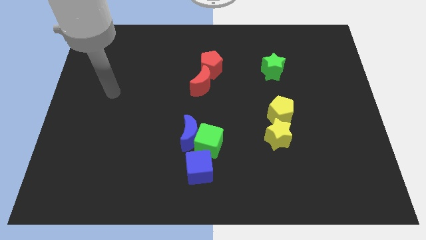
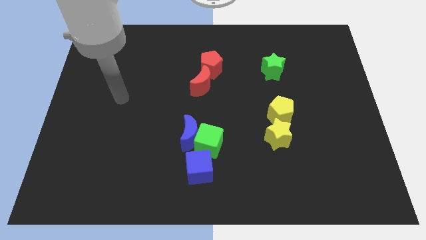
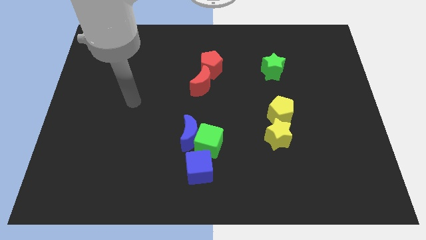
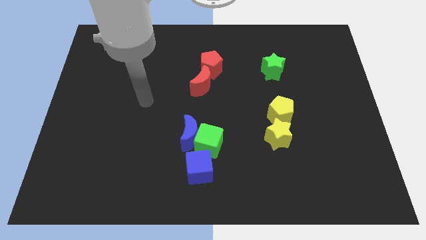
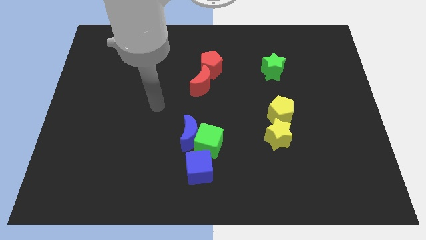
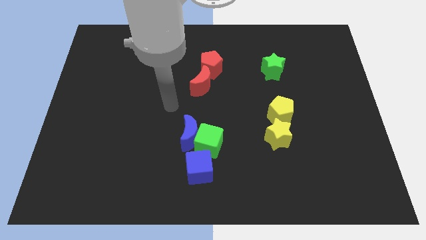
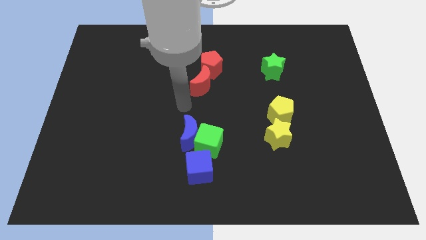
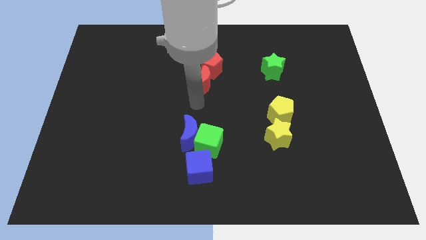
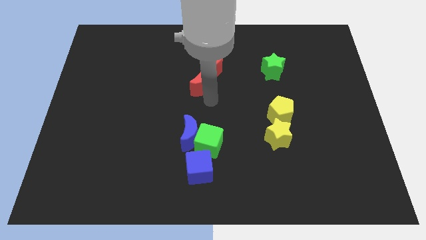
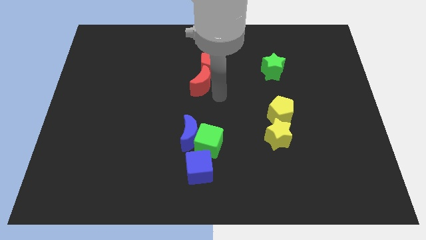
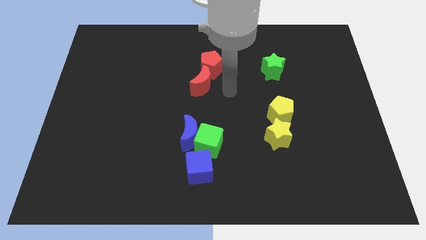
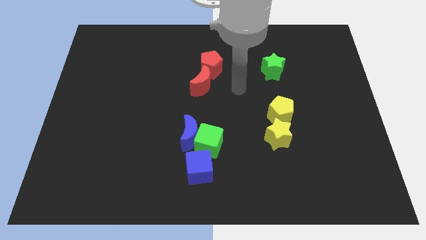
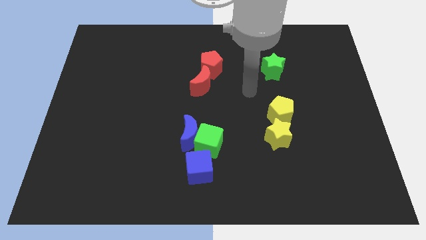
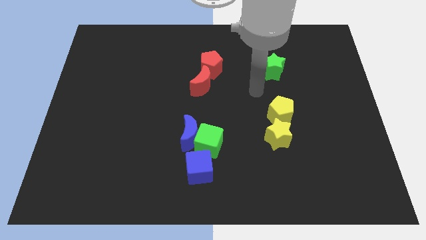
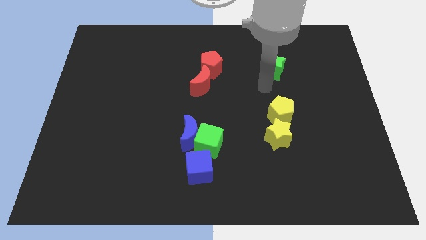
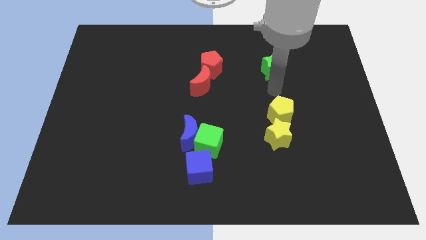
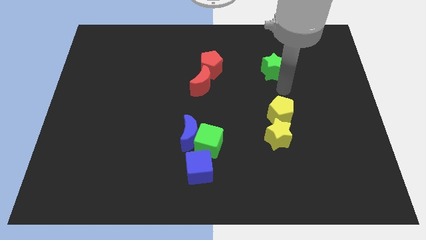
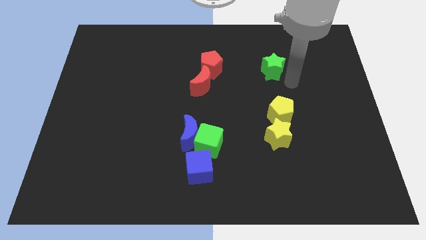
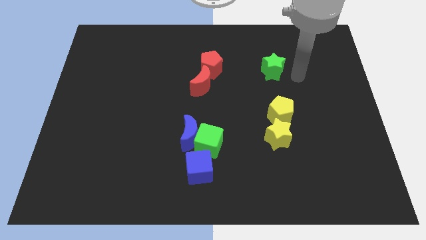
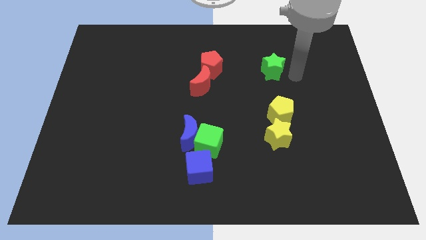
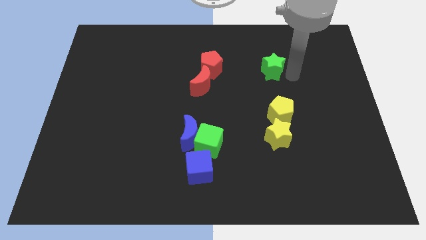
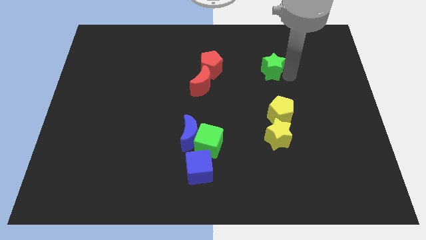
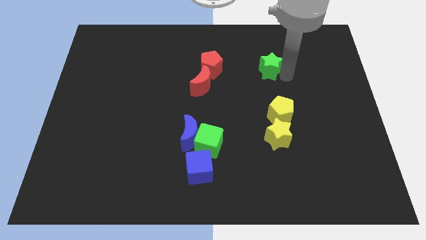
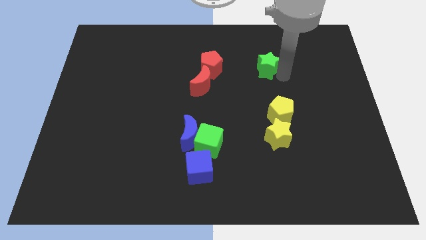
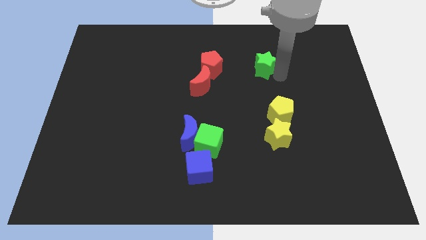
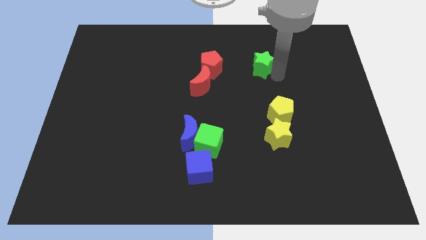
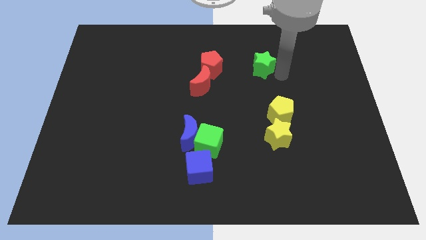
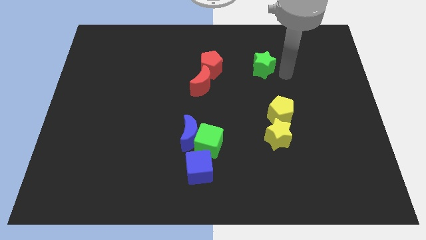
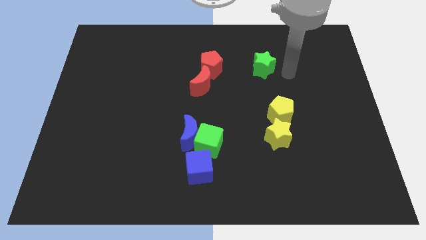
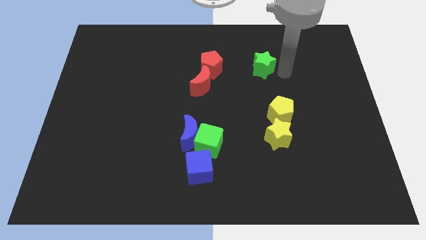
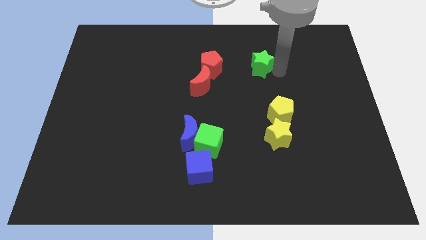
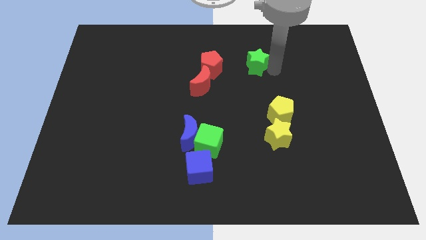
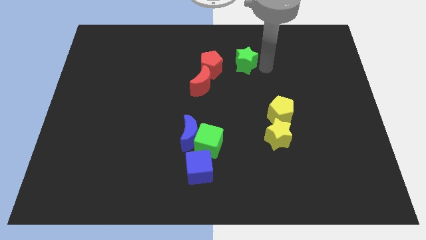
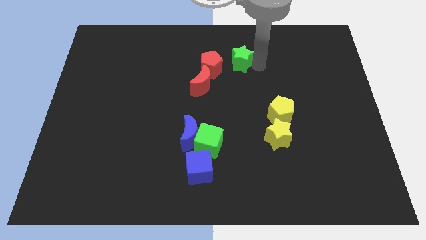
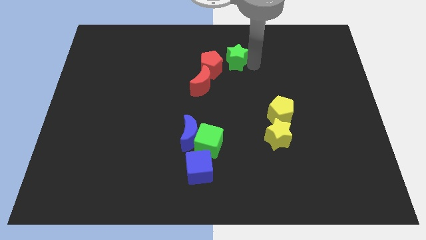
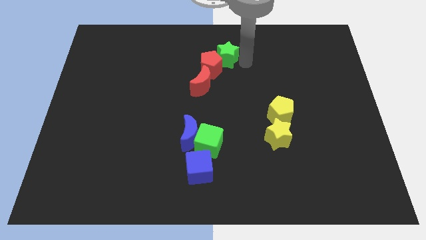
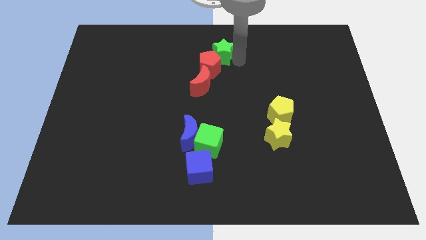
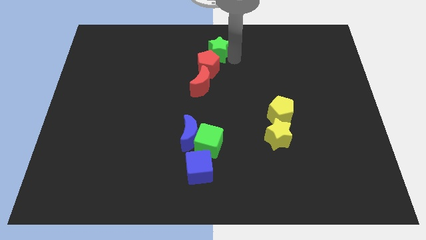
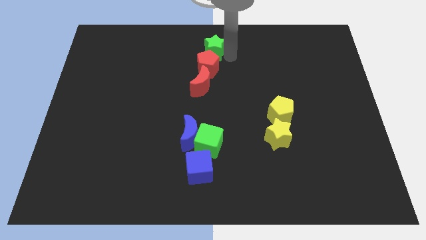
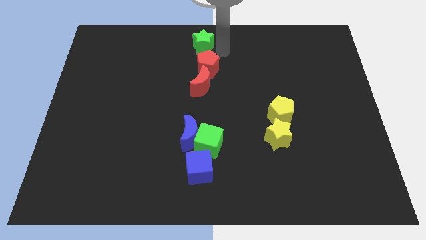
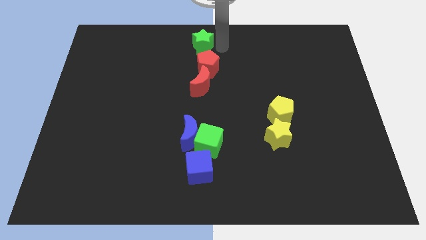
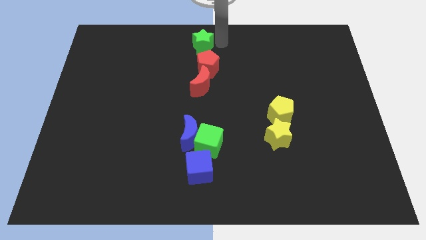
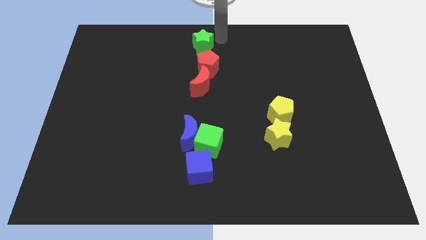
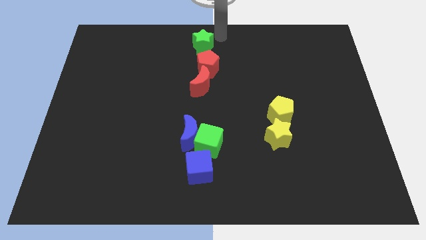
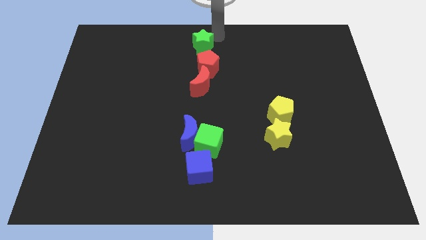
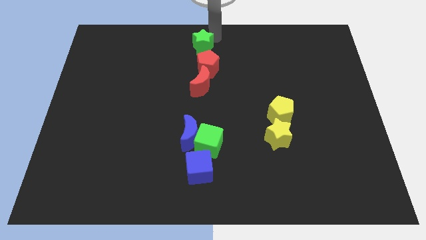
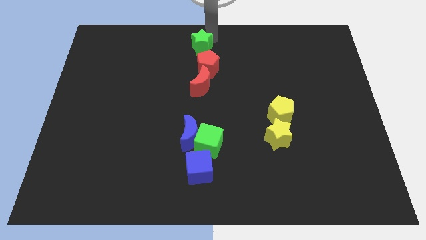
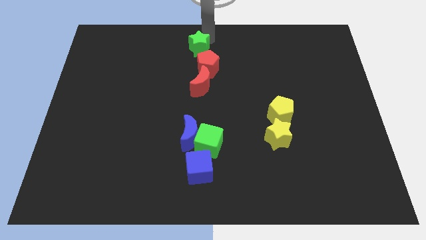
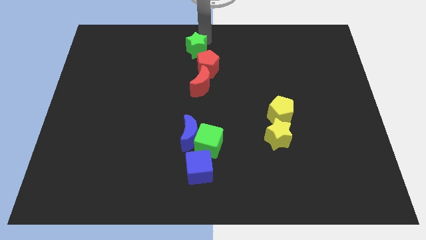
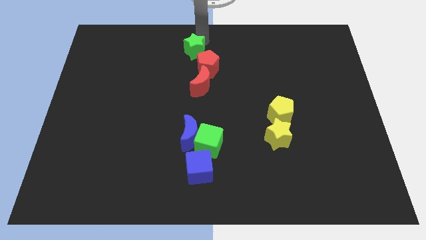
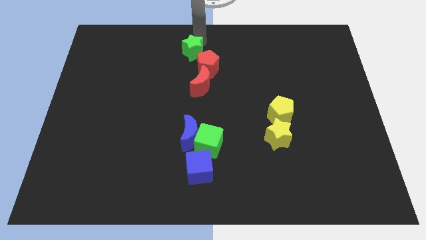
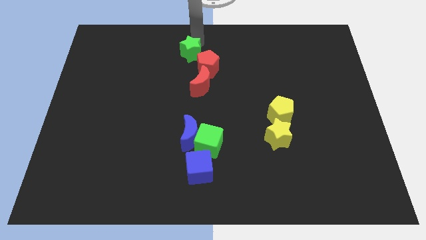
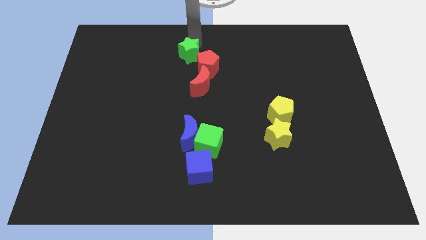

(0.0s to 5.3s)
move the green star to the left

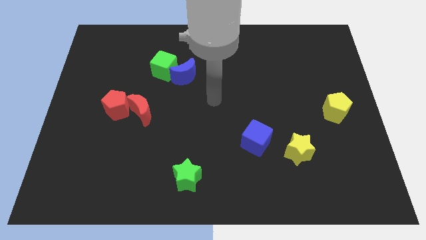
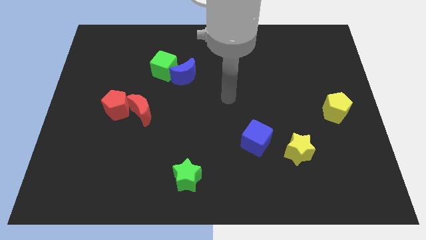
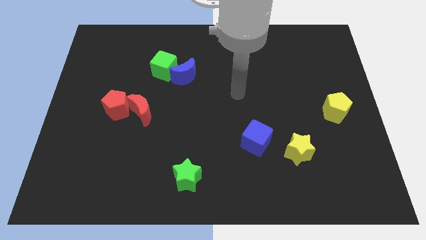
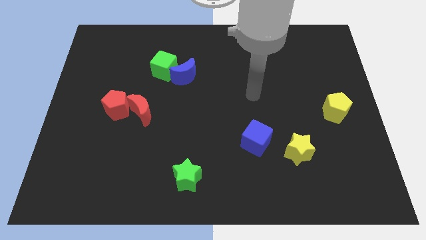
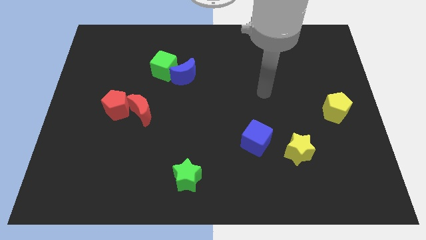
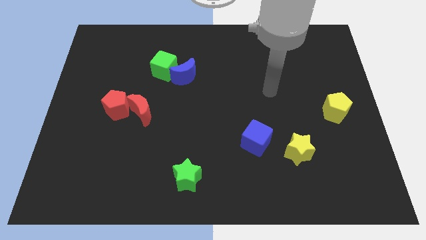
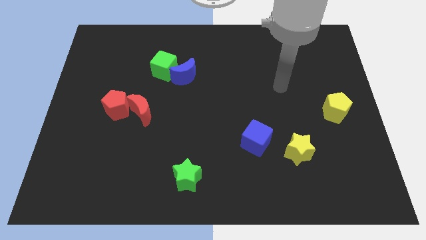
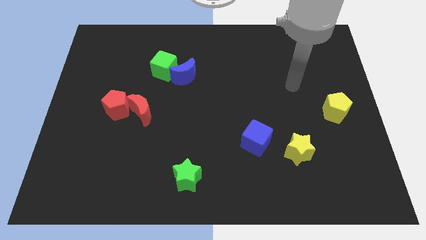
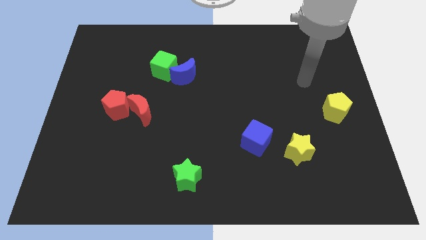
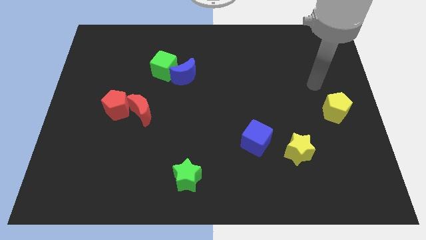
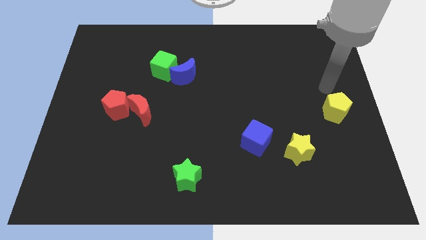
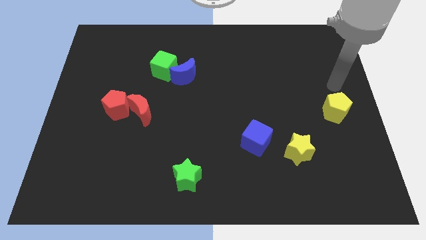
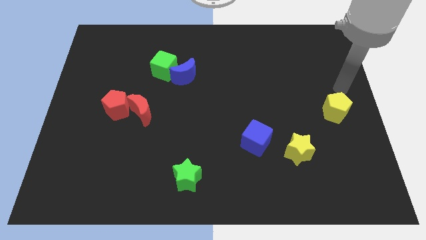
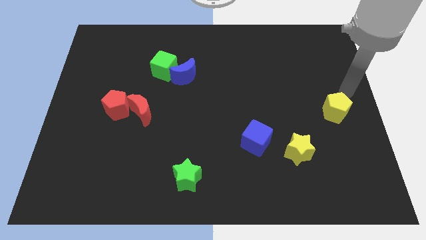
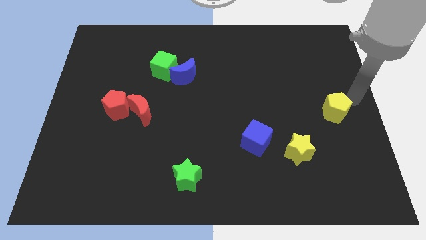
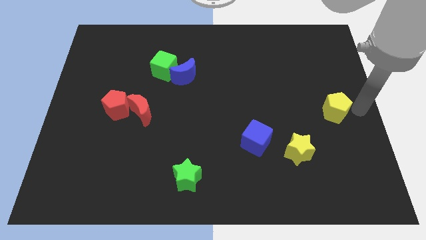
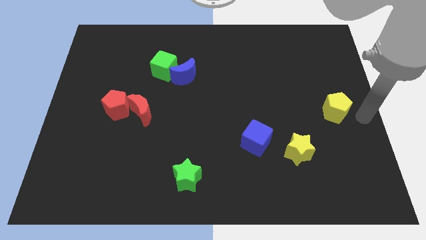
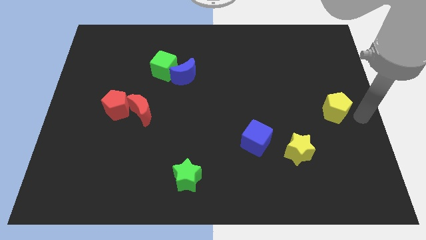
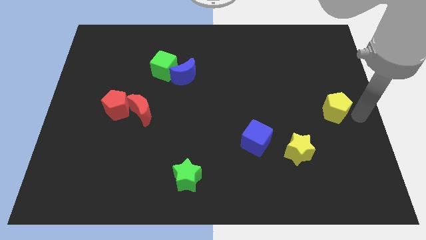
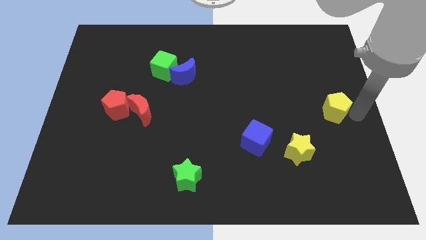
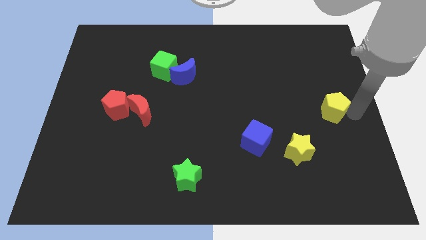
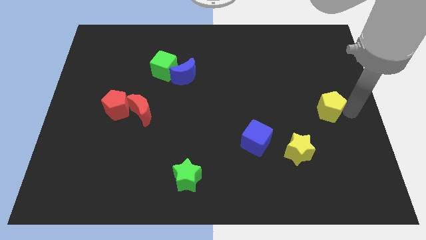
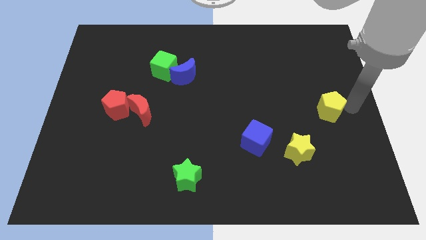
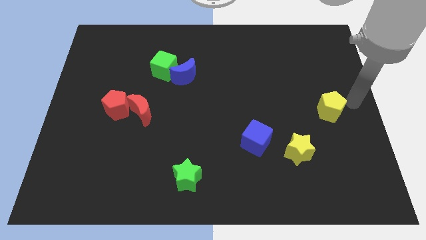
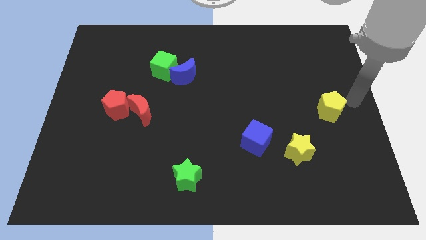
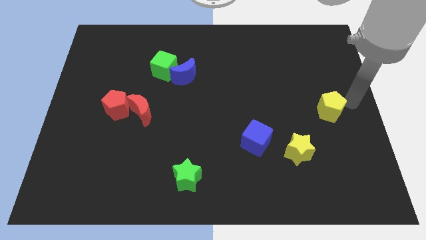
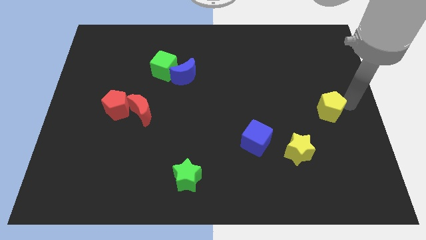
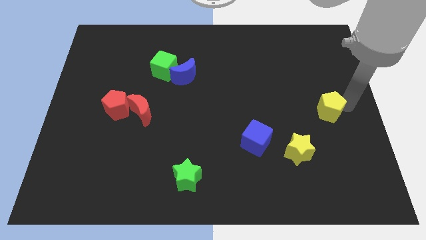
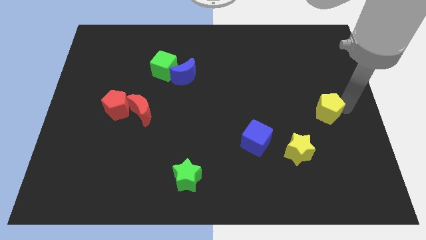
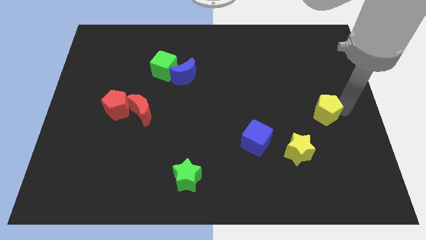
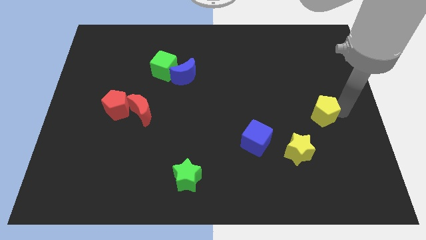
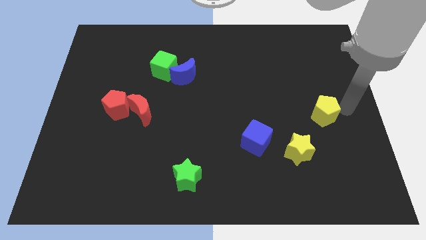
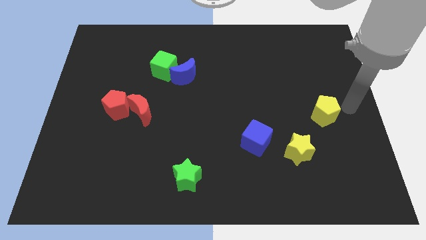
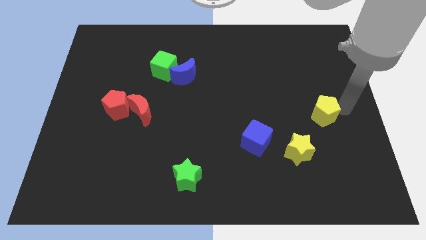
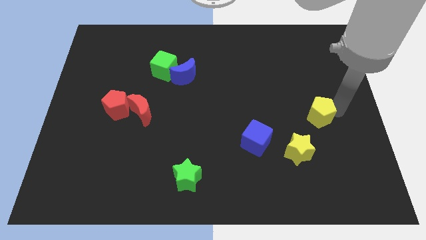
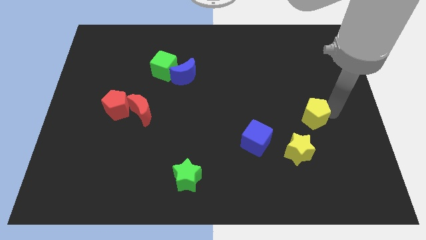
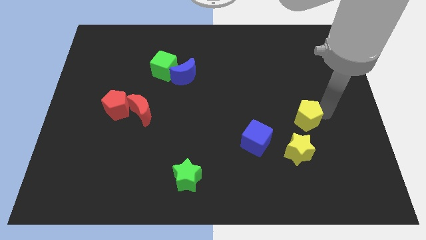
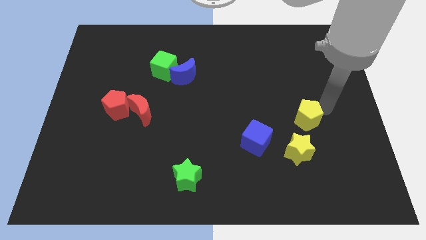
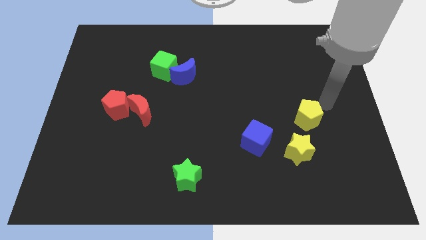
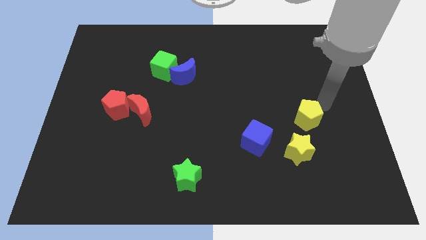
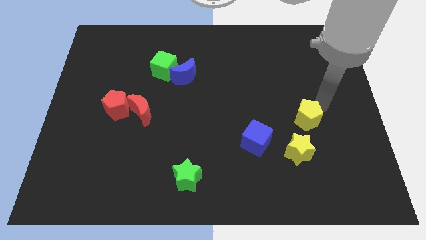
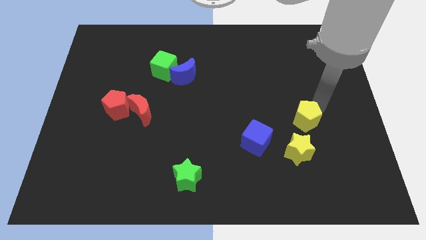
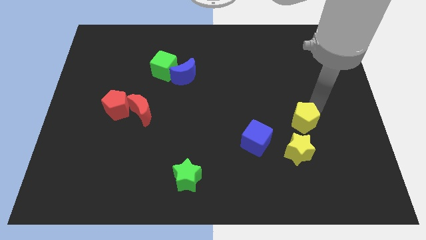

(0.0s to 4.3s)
slightly move the yellow pentagon downwards and then left
